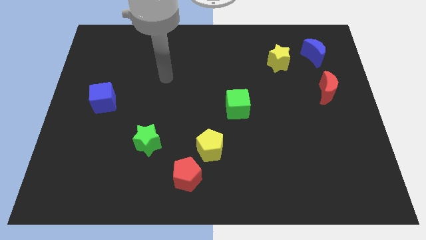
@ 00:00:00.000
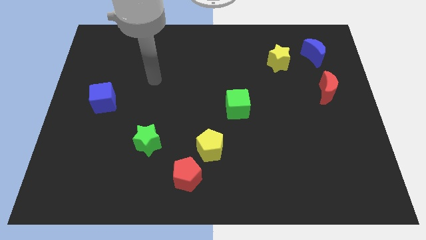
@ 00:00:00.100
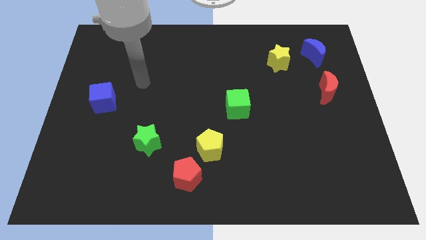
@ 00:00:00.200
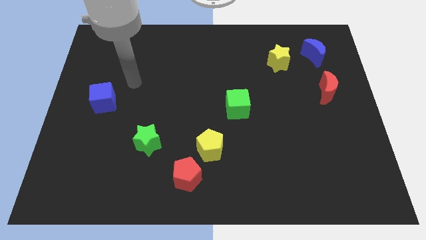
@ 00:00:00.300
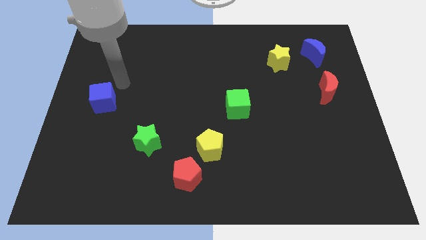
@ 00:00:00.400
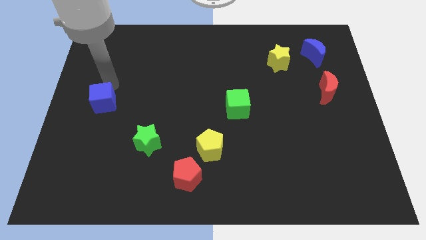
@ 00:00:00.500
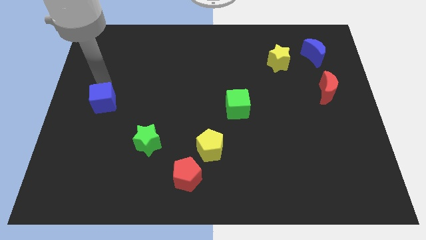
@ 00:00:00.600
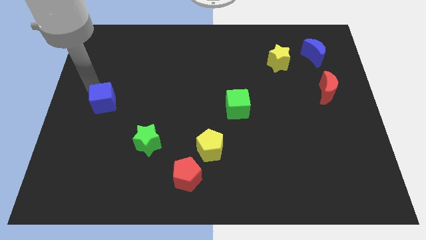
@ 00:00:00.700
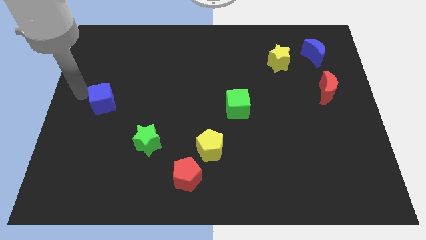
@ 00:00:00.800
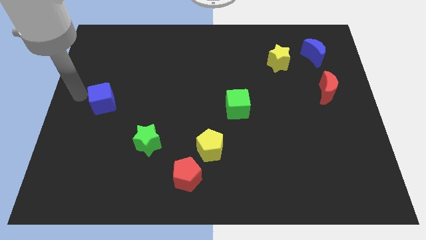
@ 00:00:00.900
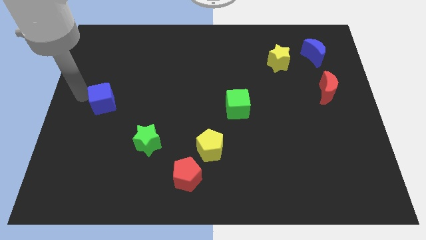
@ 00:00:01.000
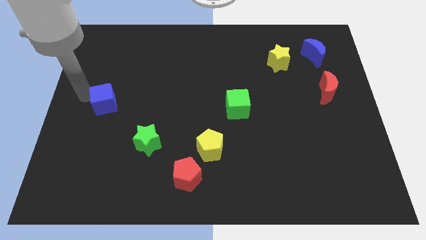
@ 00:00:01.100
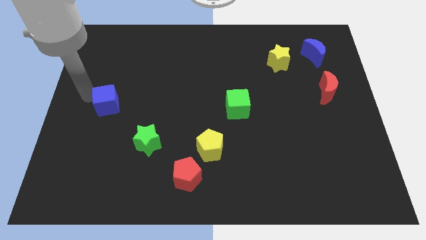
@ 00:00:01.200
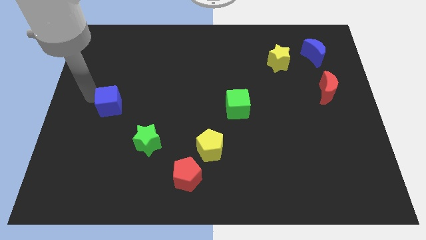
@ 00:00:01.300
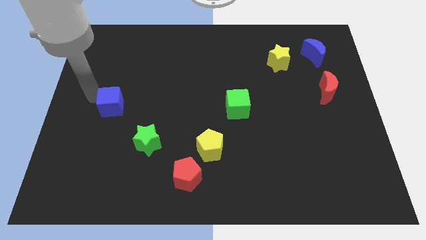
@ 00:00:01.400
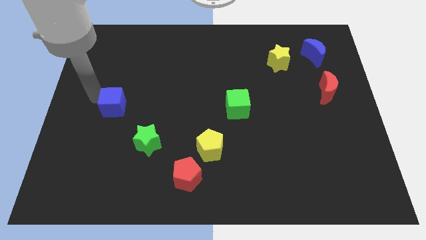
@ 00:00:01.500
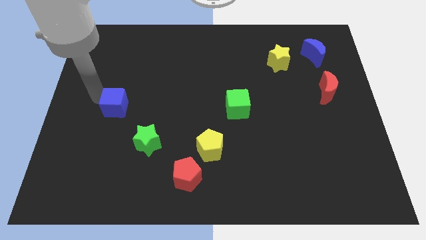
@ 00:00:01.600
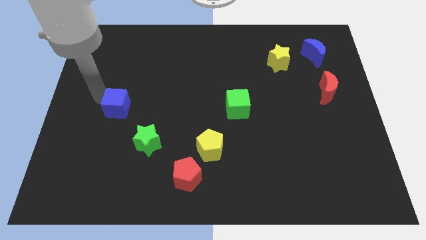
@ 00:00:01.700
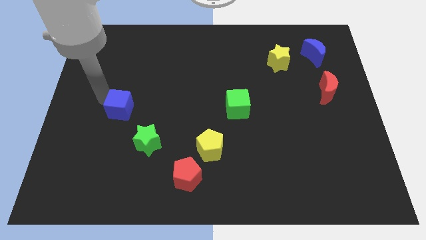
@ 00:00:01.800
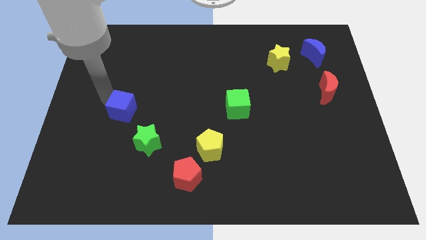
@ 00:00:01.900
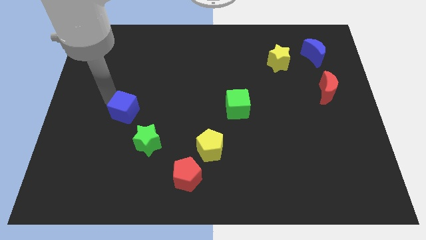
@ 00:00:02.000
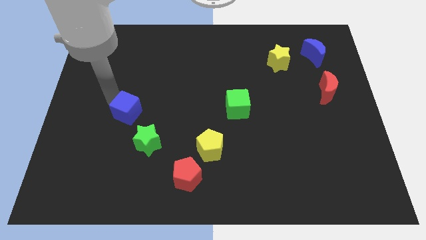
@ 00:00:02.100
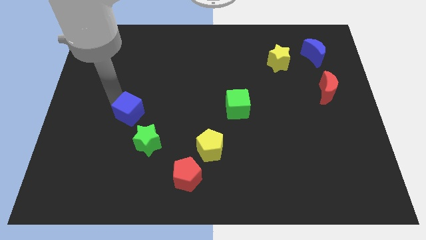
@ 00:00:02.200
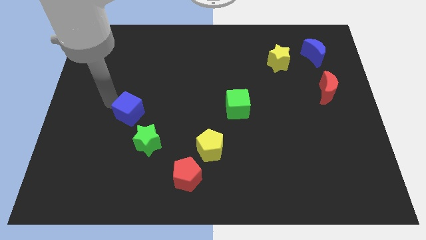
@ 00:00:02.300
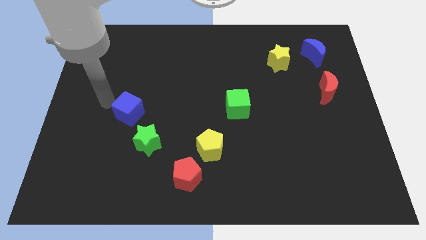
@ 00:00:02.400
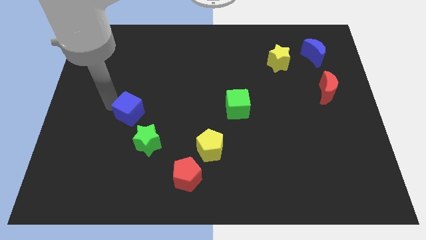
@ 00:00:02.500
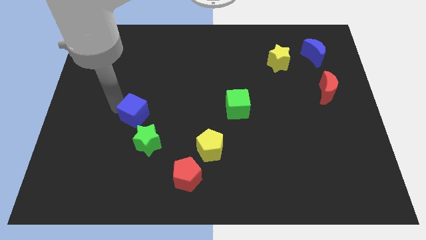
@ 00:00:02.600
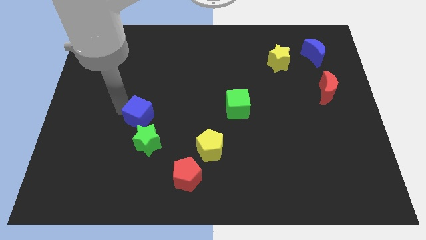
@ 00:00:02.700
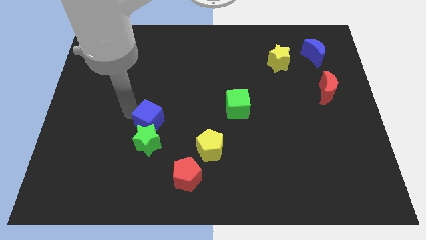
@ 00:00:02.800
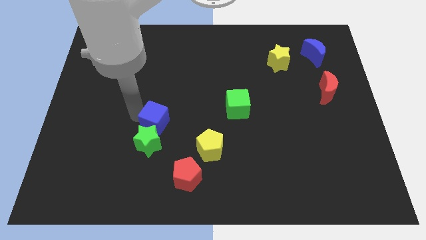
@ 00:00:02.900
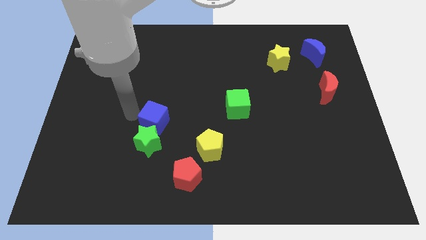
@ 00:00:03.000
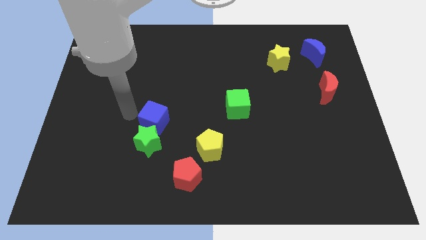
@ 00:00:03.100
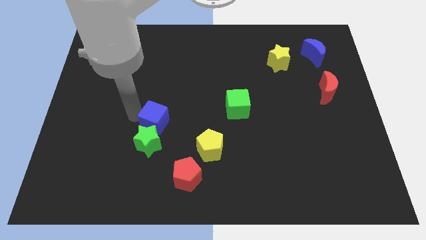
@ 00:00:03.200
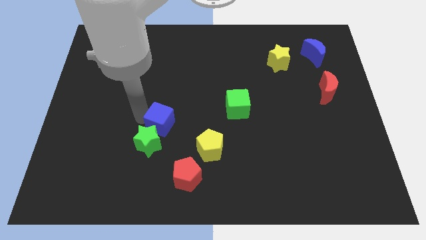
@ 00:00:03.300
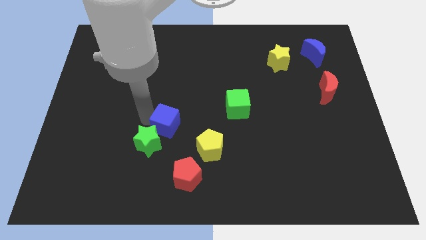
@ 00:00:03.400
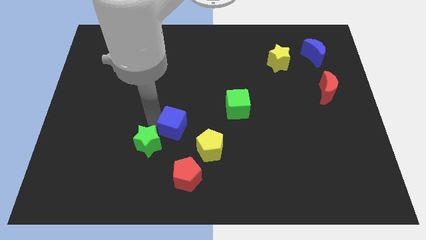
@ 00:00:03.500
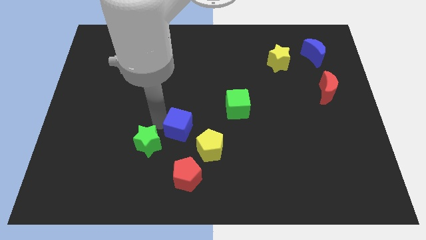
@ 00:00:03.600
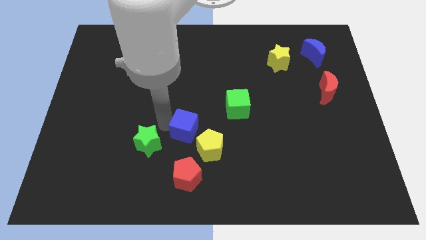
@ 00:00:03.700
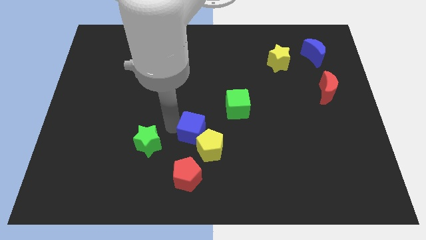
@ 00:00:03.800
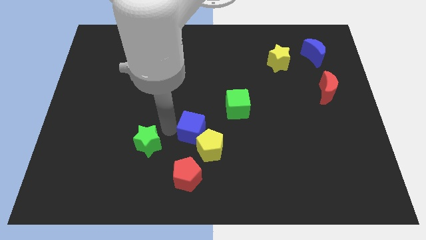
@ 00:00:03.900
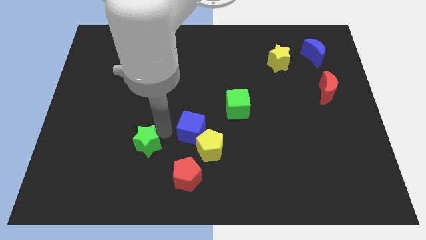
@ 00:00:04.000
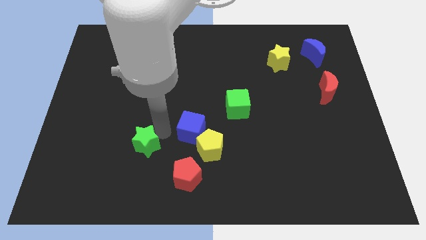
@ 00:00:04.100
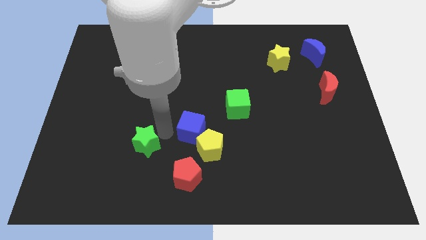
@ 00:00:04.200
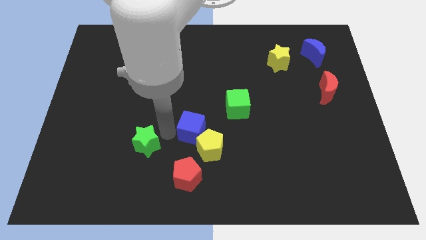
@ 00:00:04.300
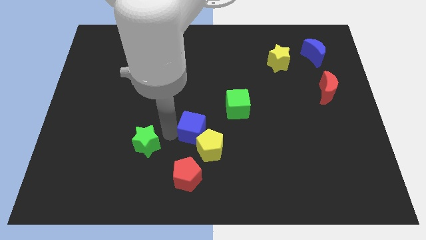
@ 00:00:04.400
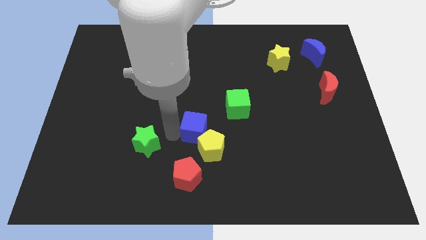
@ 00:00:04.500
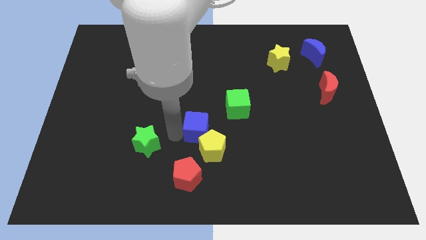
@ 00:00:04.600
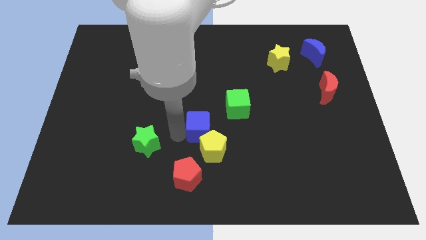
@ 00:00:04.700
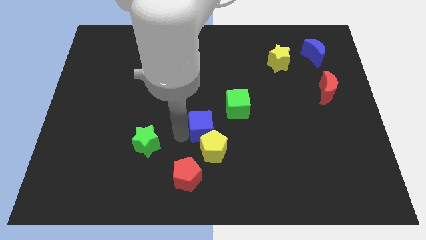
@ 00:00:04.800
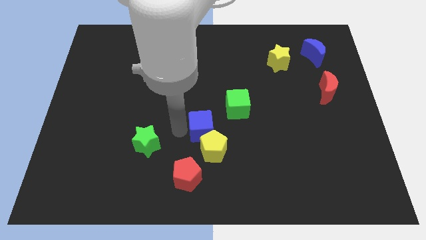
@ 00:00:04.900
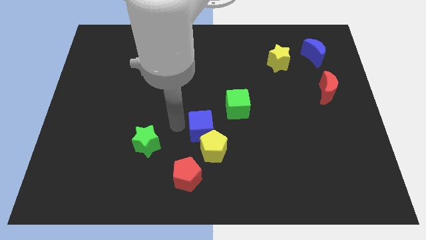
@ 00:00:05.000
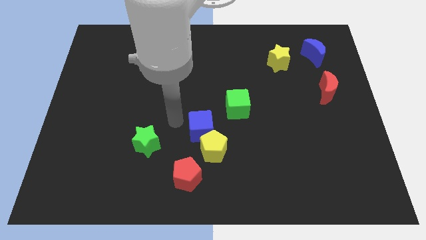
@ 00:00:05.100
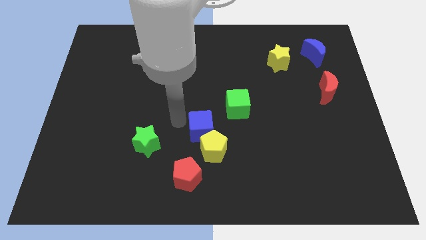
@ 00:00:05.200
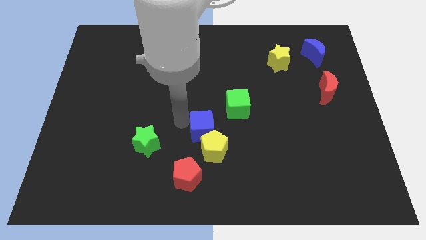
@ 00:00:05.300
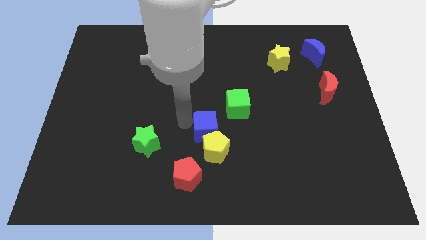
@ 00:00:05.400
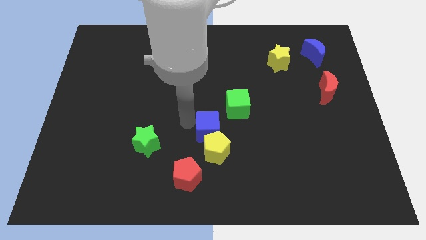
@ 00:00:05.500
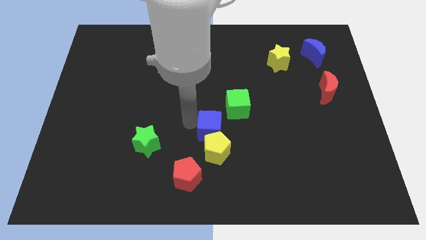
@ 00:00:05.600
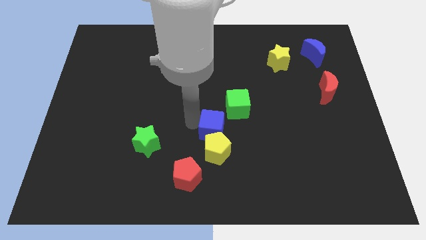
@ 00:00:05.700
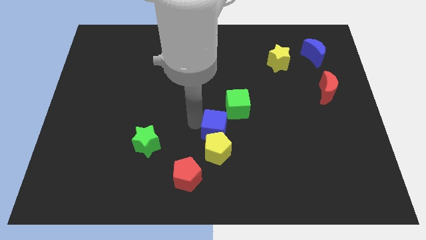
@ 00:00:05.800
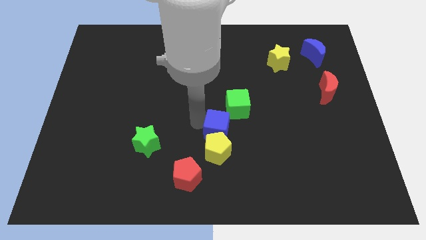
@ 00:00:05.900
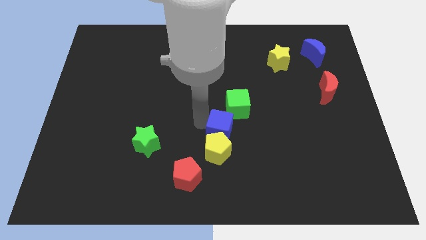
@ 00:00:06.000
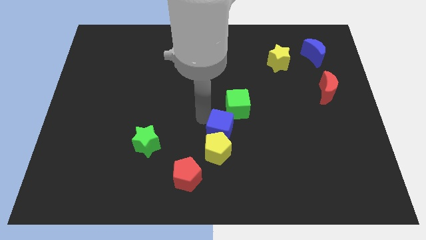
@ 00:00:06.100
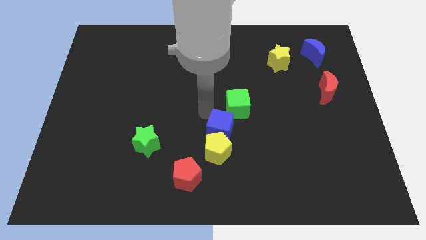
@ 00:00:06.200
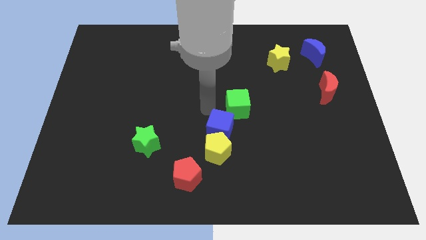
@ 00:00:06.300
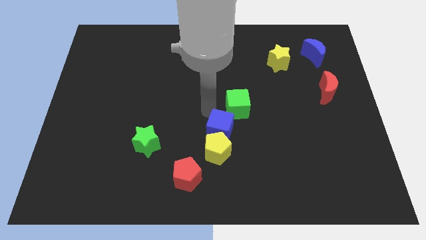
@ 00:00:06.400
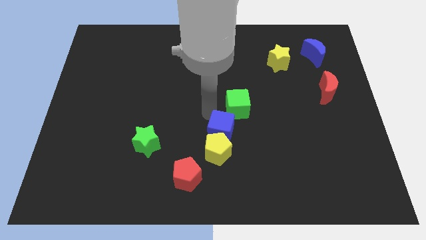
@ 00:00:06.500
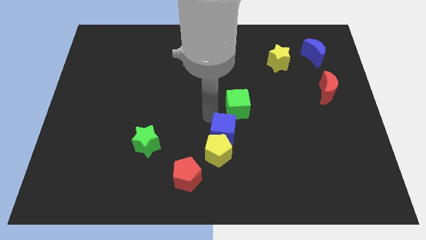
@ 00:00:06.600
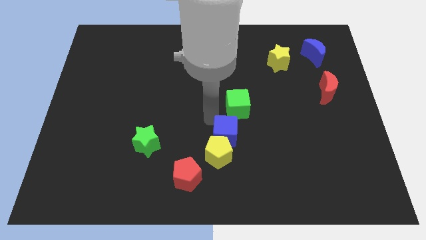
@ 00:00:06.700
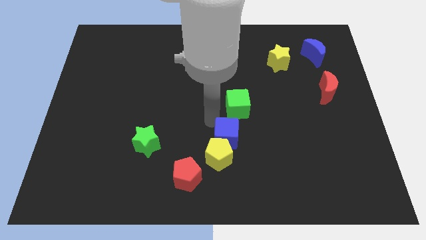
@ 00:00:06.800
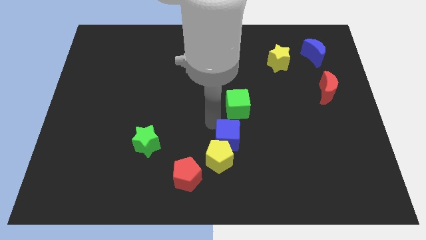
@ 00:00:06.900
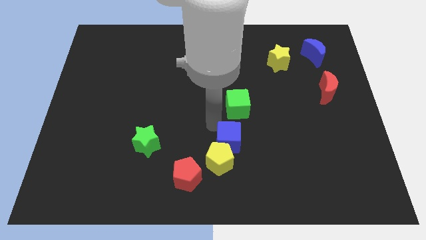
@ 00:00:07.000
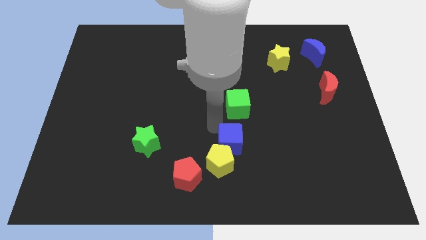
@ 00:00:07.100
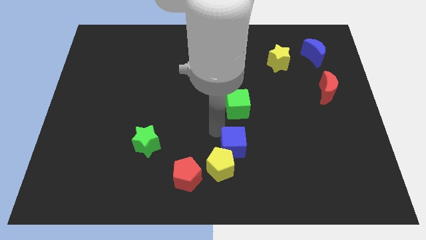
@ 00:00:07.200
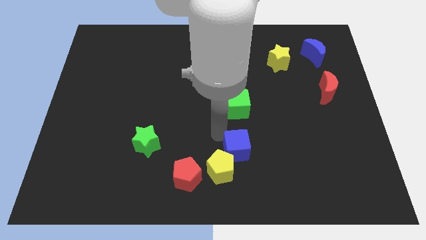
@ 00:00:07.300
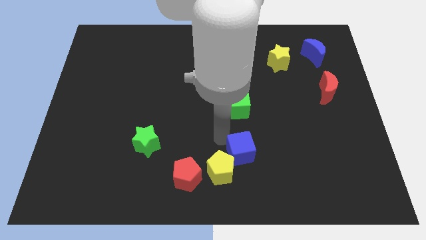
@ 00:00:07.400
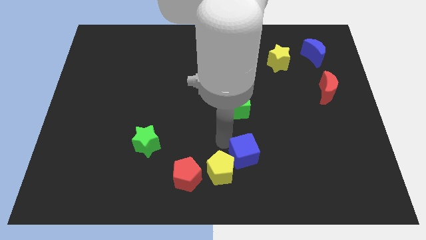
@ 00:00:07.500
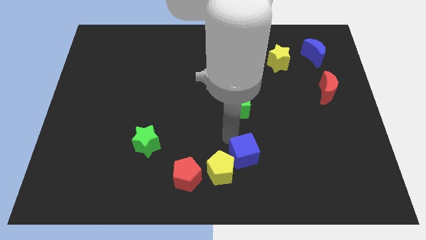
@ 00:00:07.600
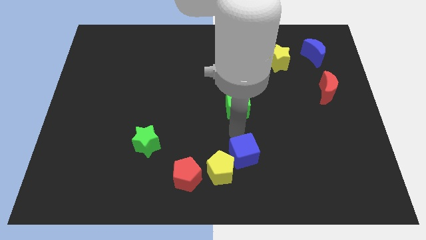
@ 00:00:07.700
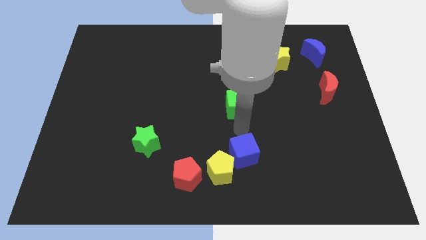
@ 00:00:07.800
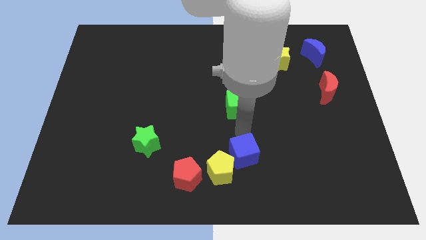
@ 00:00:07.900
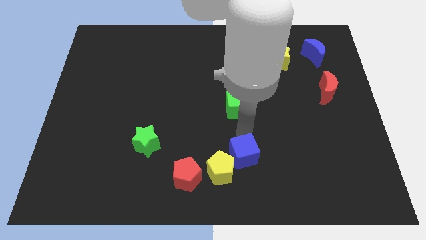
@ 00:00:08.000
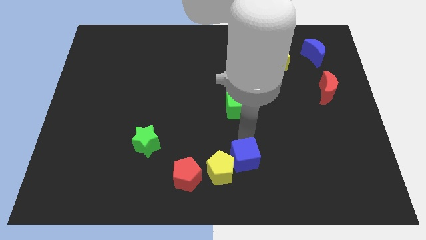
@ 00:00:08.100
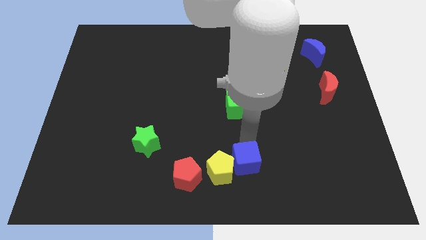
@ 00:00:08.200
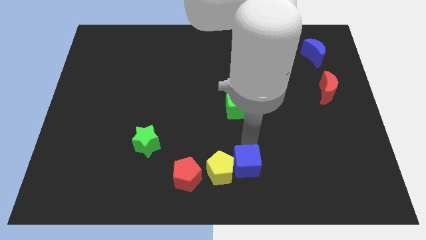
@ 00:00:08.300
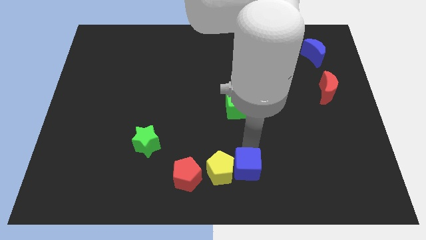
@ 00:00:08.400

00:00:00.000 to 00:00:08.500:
slide the blue cube to the bottom right of the yellow pentagon
